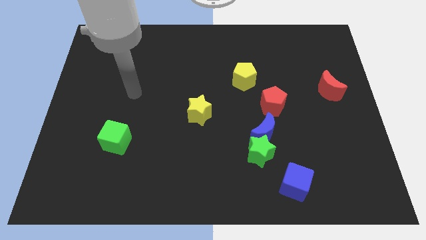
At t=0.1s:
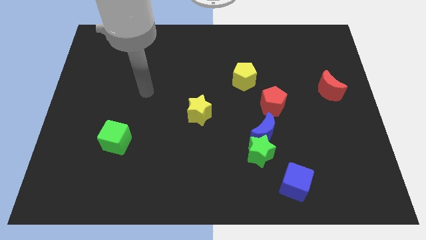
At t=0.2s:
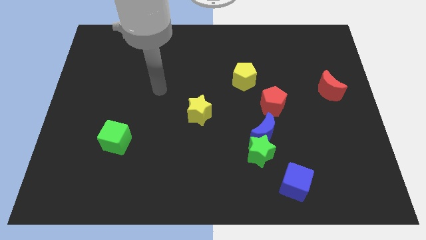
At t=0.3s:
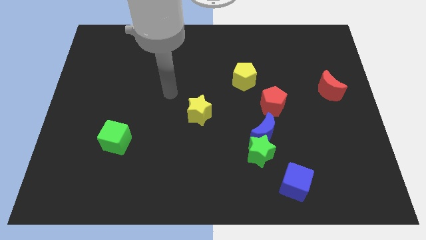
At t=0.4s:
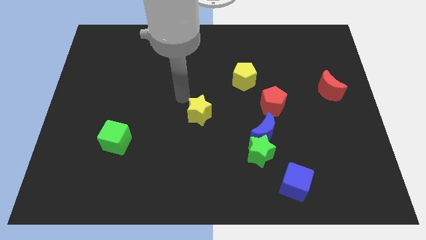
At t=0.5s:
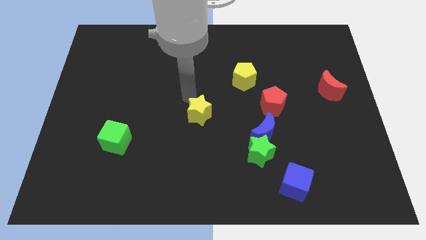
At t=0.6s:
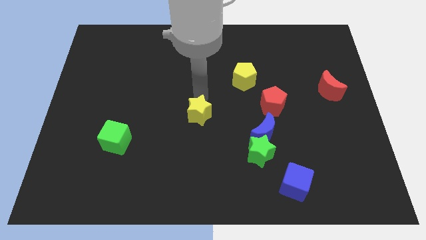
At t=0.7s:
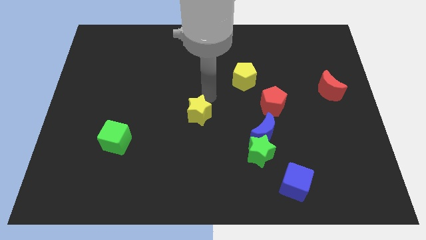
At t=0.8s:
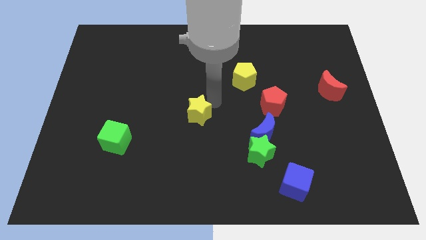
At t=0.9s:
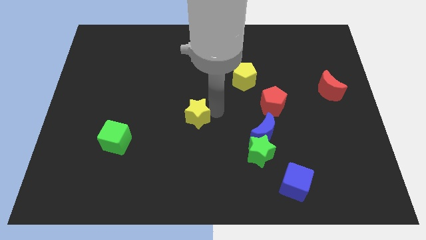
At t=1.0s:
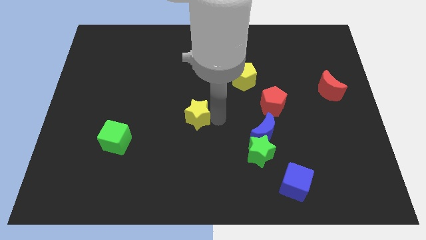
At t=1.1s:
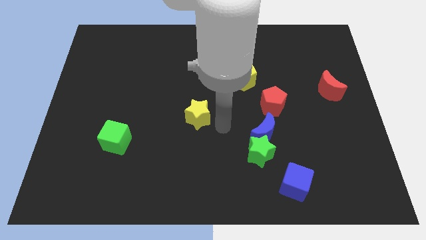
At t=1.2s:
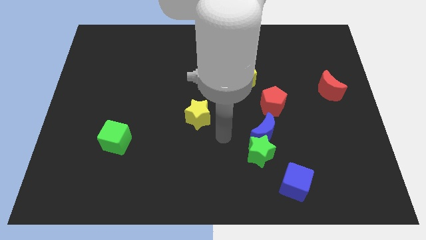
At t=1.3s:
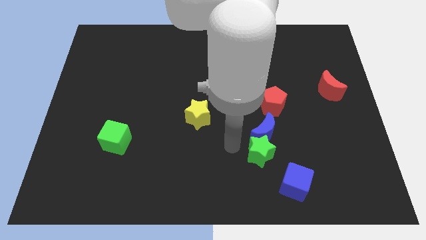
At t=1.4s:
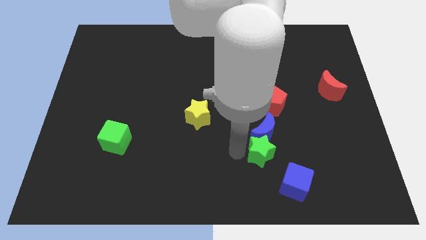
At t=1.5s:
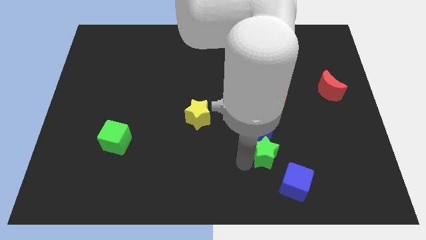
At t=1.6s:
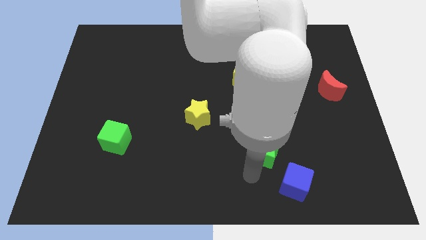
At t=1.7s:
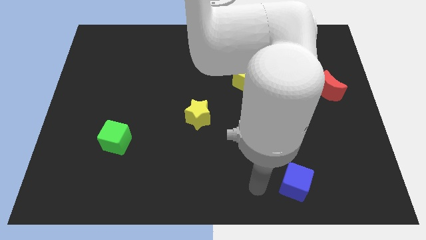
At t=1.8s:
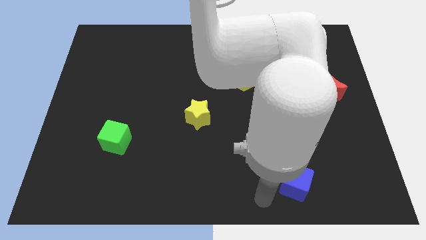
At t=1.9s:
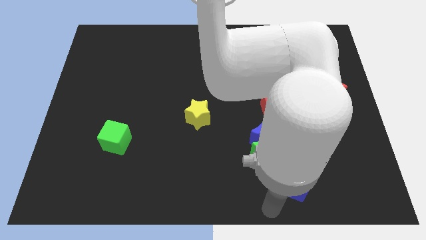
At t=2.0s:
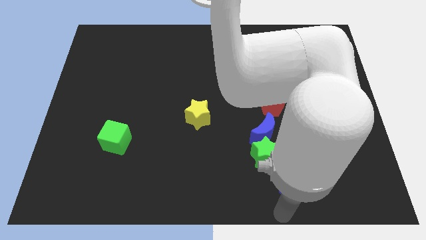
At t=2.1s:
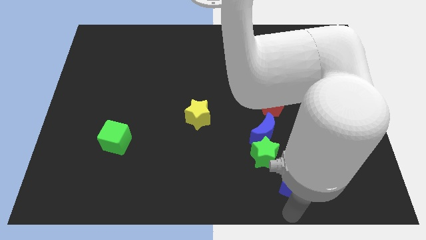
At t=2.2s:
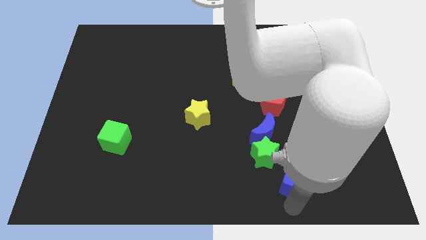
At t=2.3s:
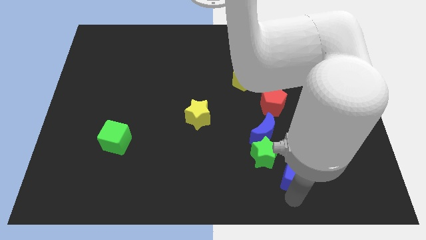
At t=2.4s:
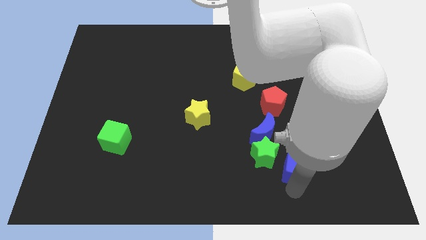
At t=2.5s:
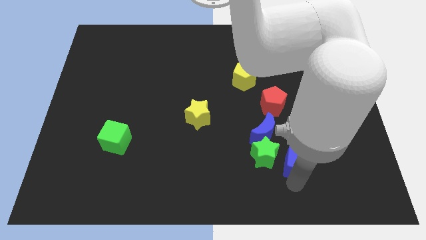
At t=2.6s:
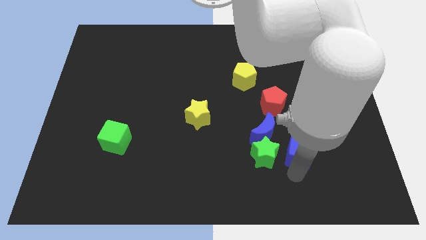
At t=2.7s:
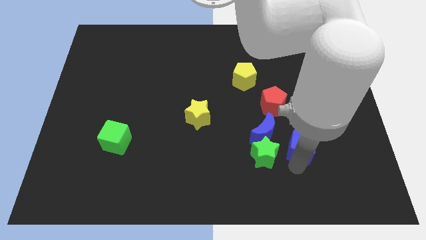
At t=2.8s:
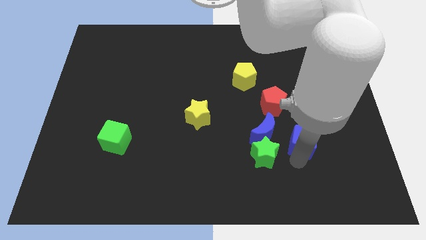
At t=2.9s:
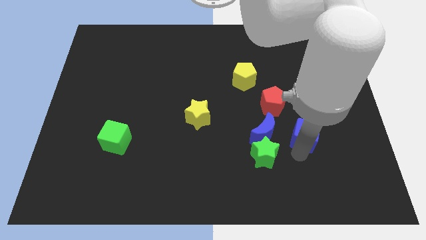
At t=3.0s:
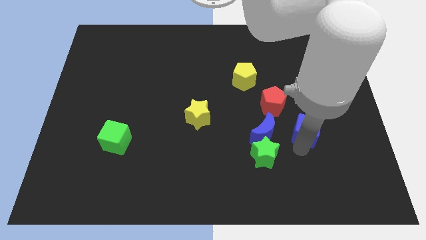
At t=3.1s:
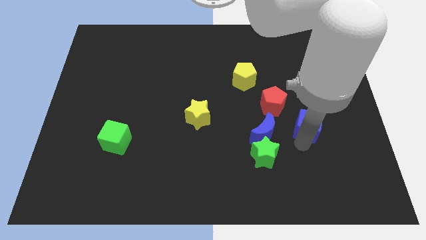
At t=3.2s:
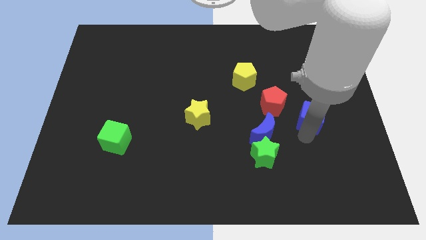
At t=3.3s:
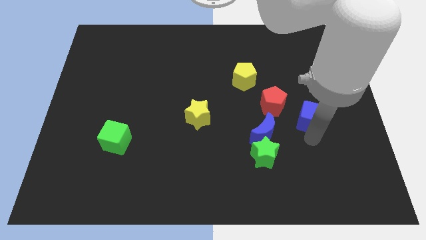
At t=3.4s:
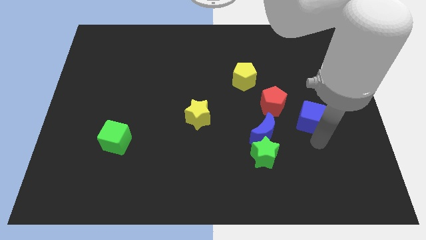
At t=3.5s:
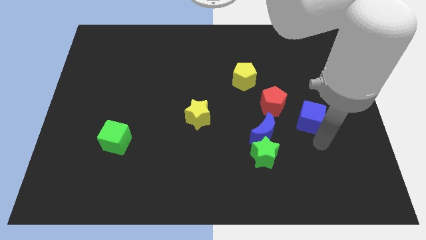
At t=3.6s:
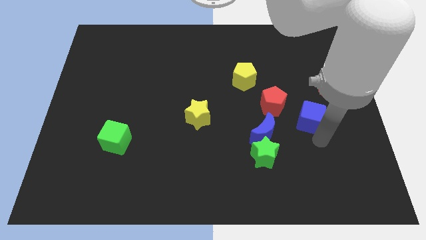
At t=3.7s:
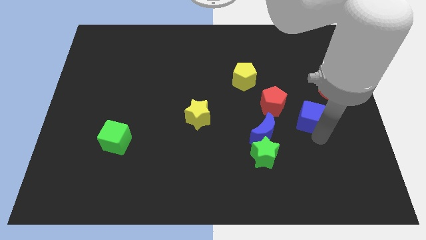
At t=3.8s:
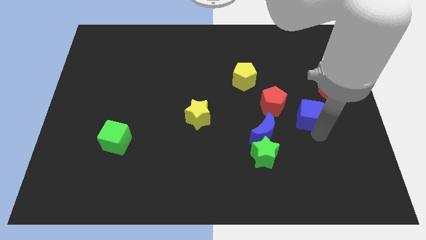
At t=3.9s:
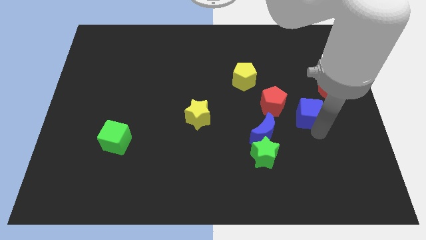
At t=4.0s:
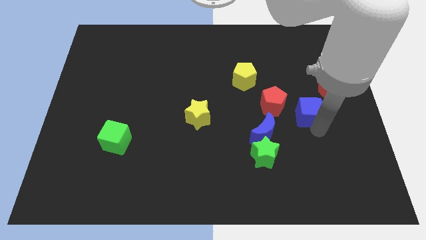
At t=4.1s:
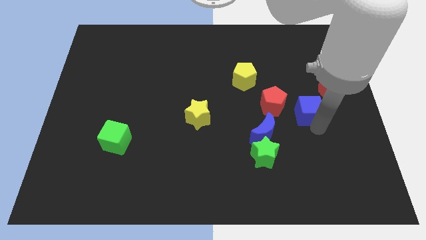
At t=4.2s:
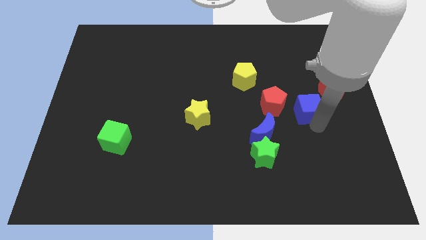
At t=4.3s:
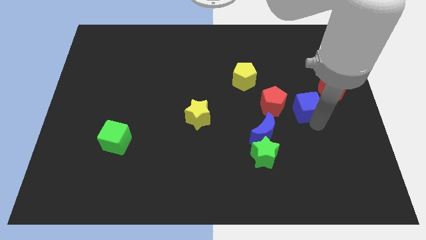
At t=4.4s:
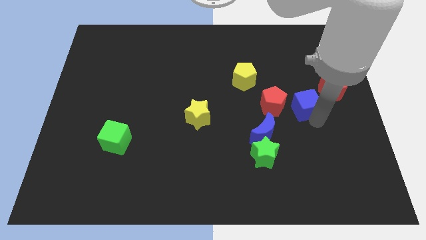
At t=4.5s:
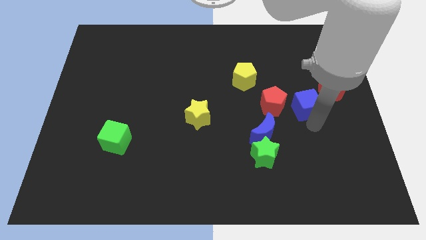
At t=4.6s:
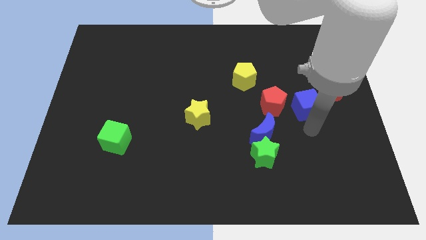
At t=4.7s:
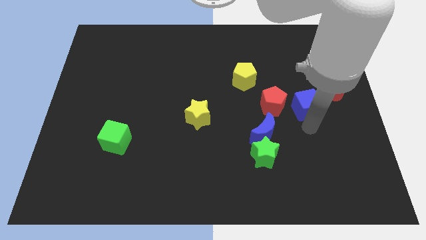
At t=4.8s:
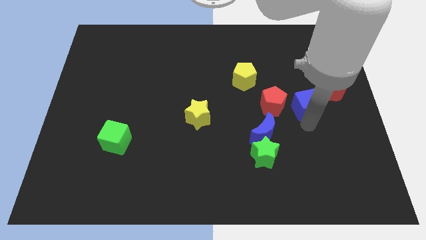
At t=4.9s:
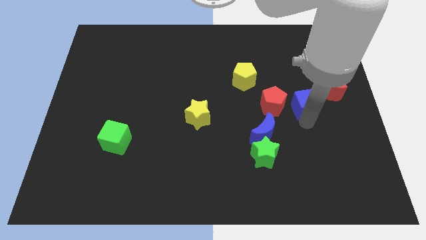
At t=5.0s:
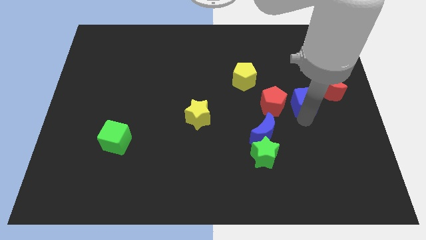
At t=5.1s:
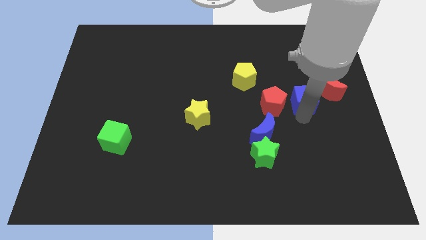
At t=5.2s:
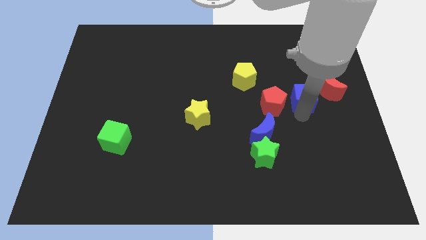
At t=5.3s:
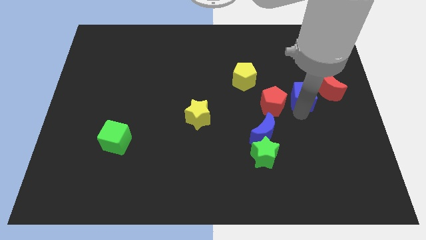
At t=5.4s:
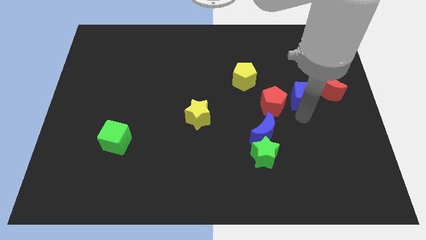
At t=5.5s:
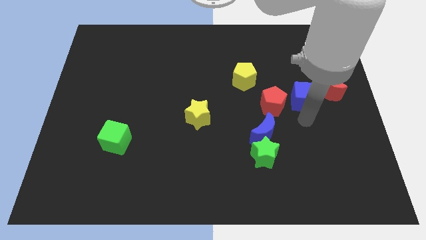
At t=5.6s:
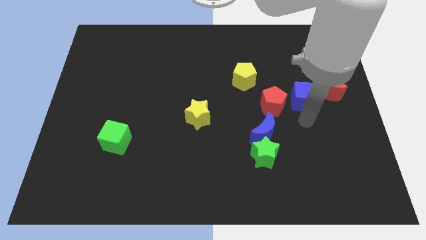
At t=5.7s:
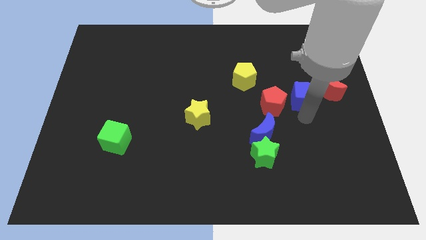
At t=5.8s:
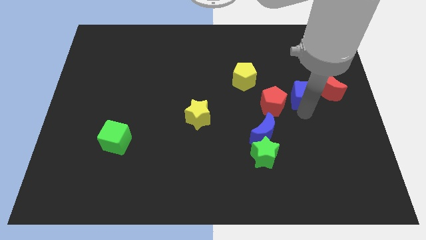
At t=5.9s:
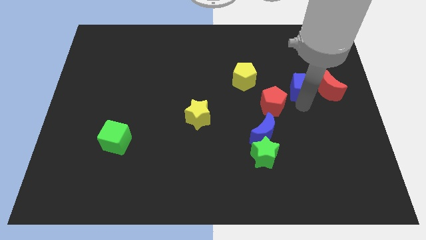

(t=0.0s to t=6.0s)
push the blue cube to the top left side of the red moon

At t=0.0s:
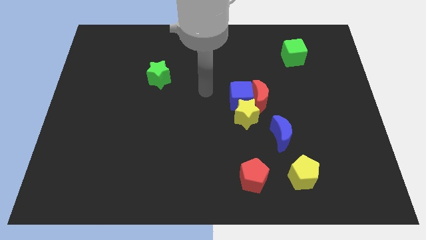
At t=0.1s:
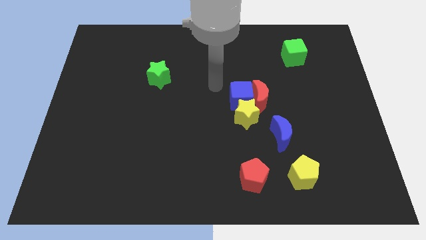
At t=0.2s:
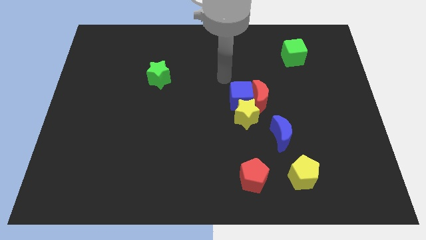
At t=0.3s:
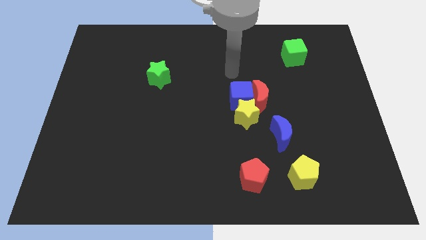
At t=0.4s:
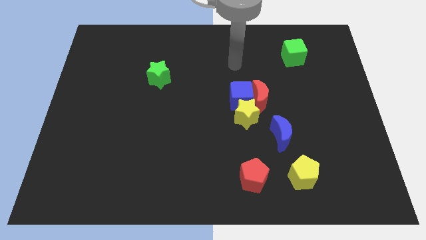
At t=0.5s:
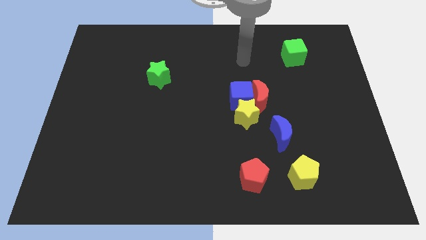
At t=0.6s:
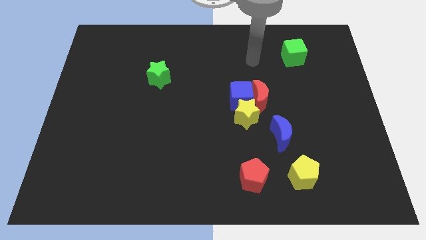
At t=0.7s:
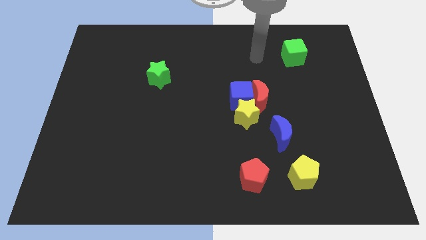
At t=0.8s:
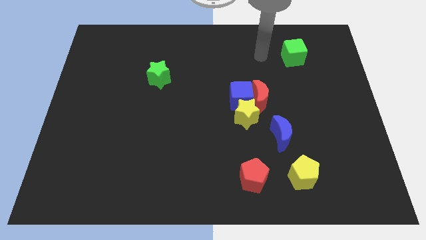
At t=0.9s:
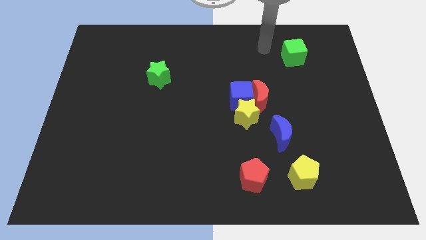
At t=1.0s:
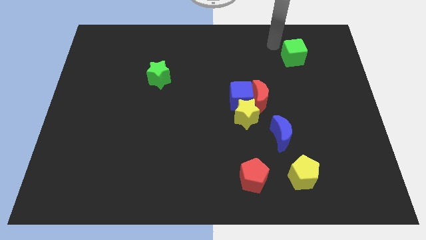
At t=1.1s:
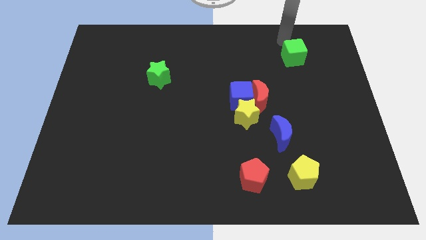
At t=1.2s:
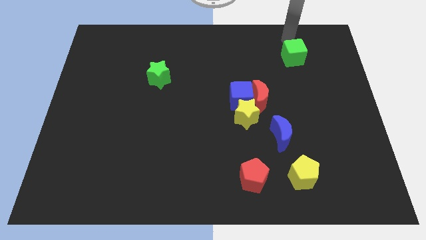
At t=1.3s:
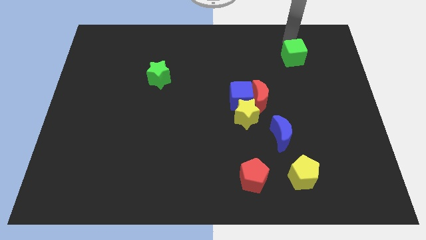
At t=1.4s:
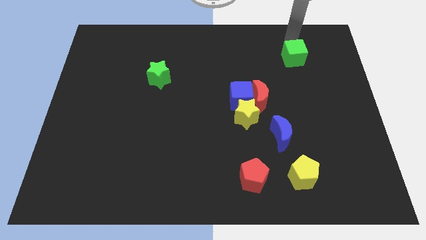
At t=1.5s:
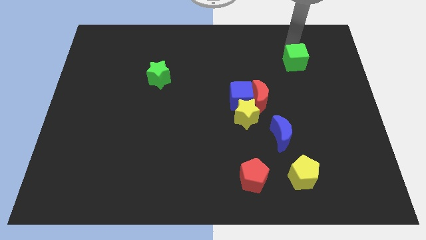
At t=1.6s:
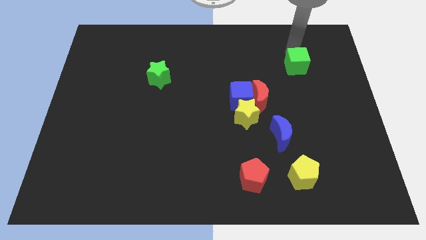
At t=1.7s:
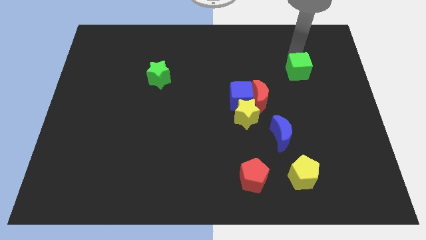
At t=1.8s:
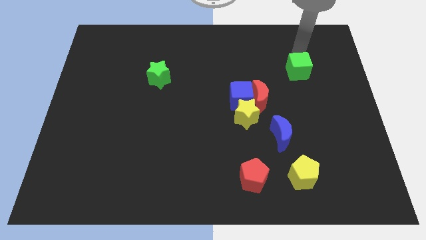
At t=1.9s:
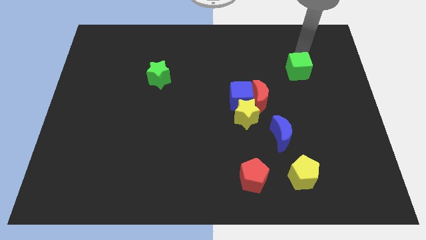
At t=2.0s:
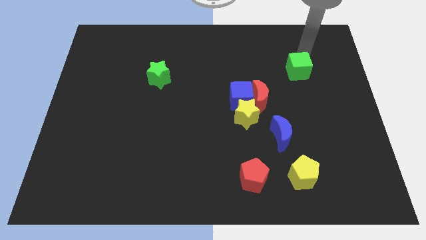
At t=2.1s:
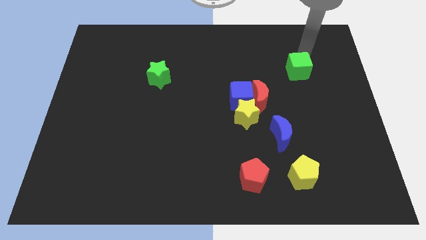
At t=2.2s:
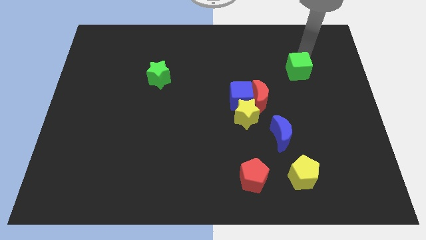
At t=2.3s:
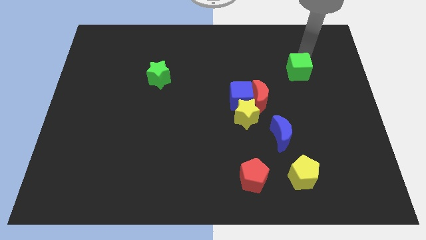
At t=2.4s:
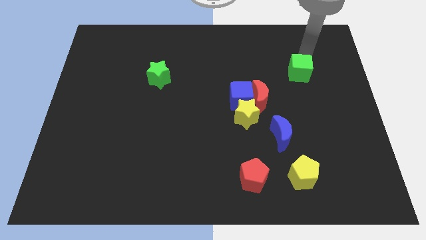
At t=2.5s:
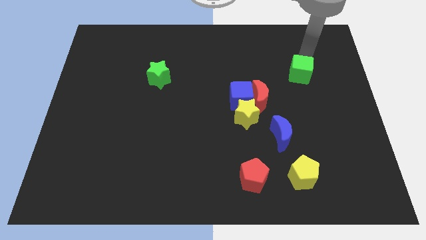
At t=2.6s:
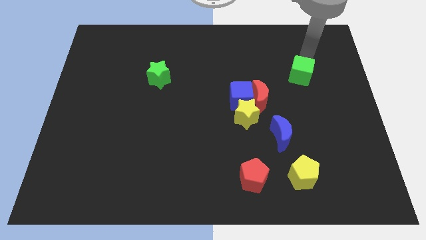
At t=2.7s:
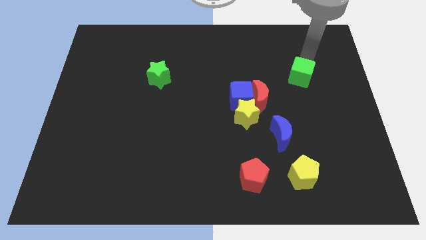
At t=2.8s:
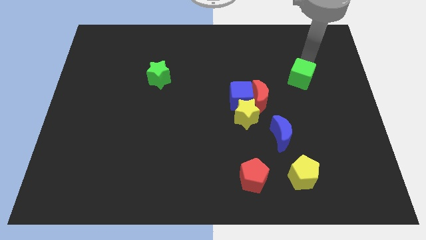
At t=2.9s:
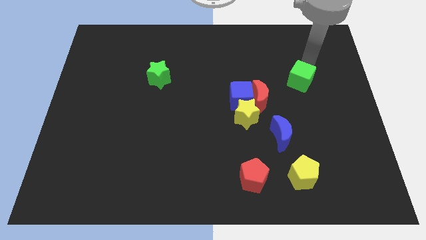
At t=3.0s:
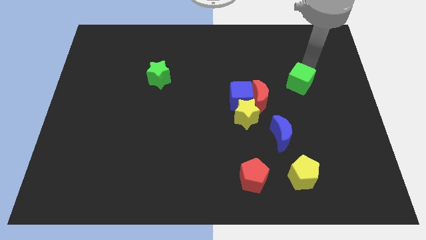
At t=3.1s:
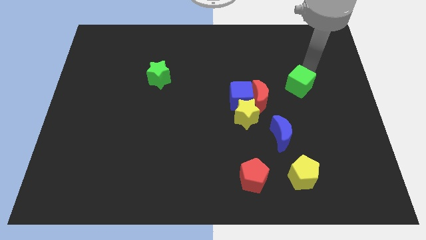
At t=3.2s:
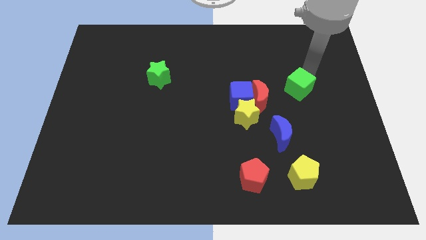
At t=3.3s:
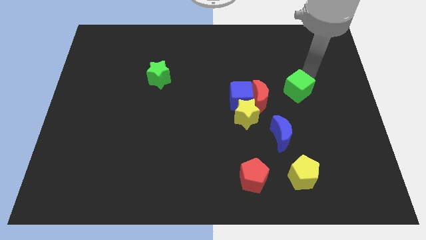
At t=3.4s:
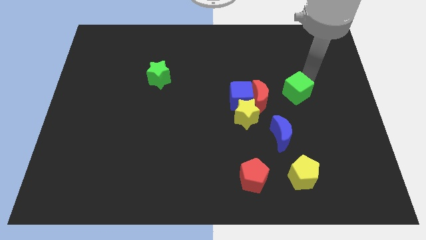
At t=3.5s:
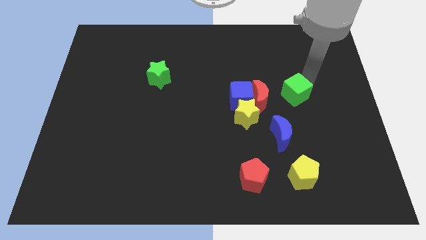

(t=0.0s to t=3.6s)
push the green cube above the blue moon
